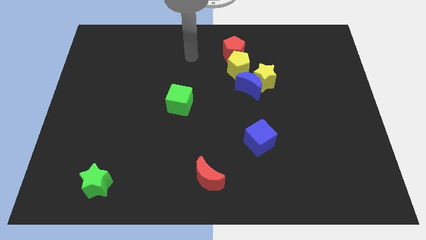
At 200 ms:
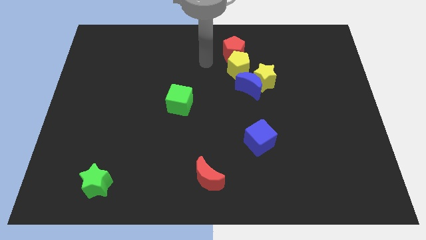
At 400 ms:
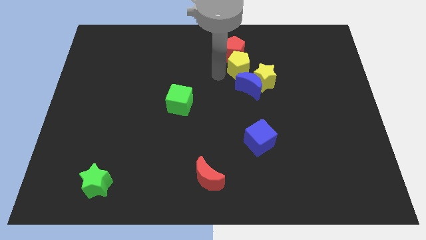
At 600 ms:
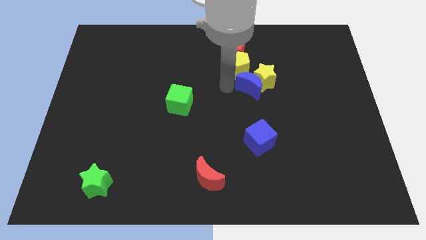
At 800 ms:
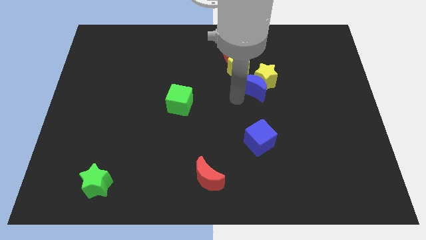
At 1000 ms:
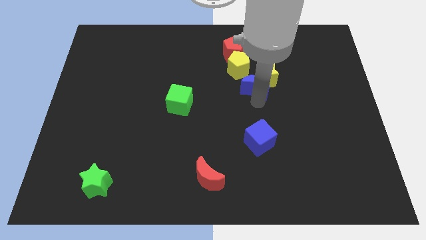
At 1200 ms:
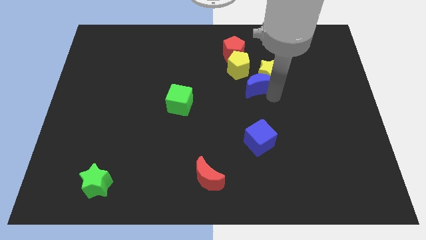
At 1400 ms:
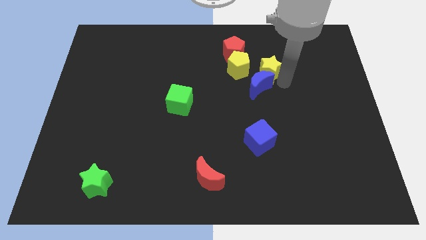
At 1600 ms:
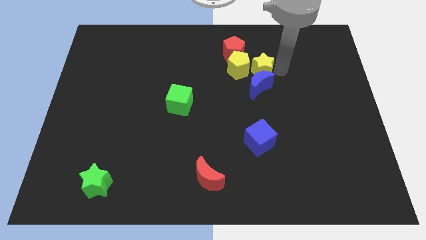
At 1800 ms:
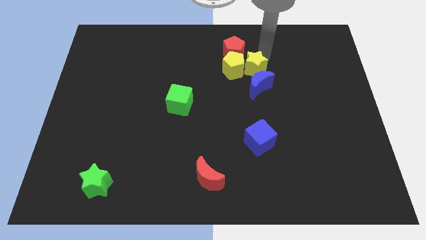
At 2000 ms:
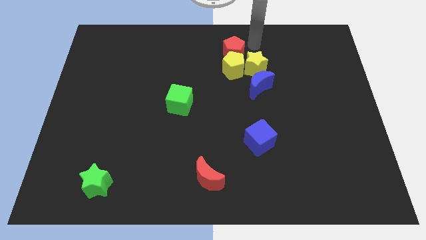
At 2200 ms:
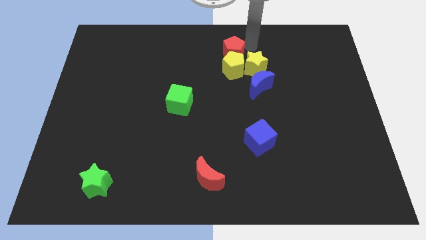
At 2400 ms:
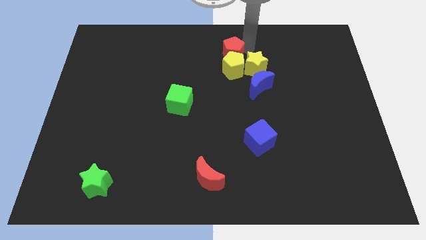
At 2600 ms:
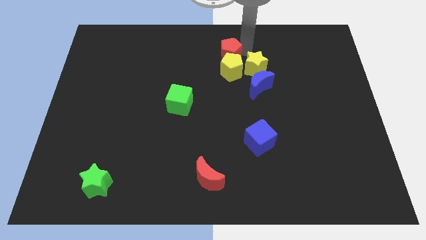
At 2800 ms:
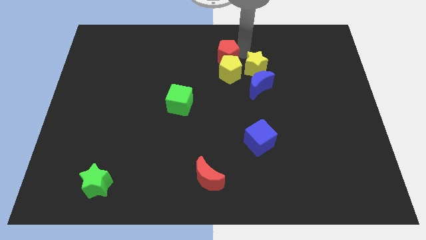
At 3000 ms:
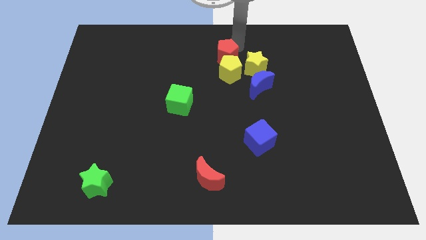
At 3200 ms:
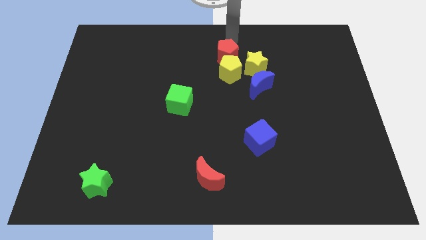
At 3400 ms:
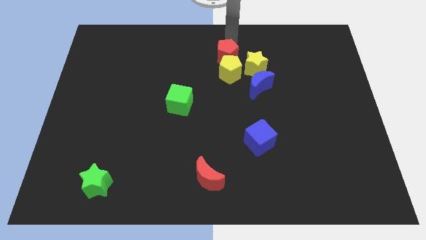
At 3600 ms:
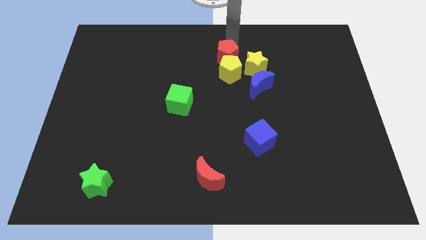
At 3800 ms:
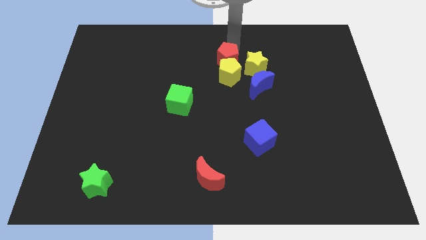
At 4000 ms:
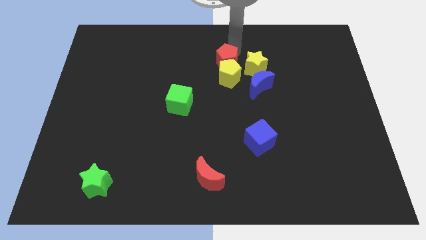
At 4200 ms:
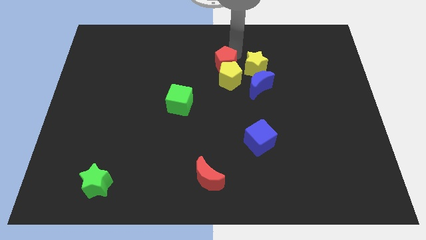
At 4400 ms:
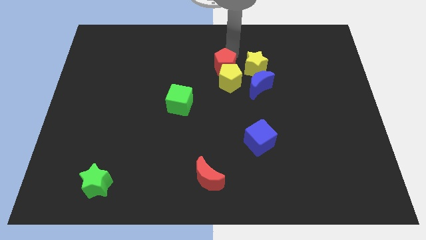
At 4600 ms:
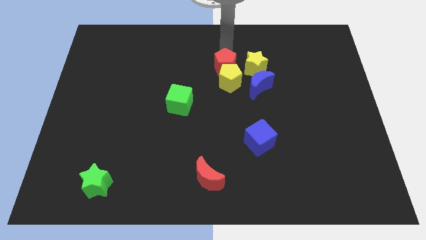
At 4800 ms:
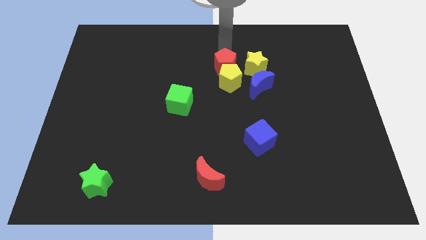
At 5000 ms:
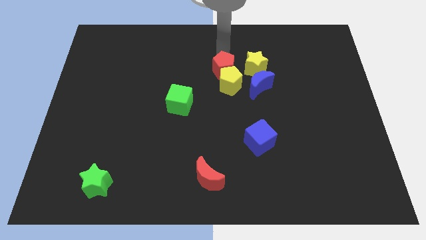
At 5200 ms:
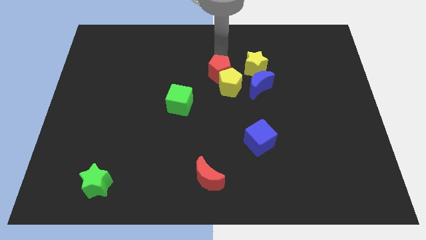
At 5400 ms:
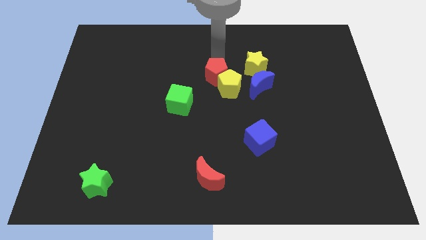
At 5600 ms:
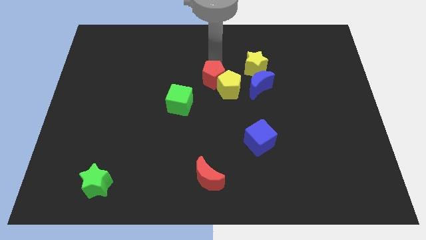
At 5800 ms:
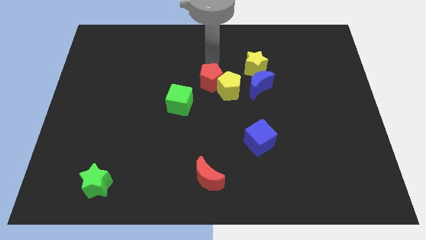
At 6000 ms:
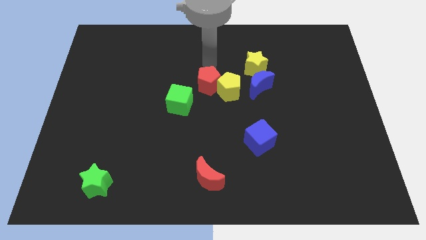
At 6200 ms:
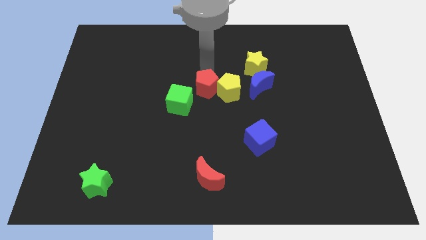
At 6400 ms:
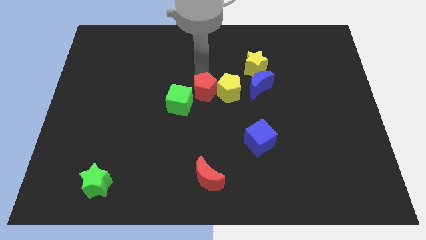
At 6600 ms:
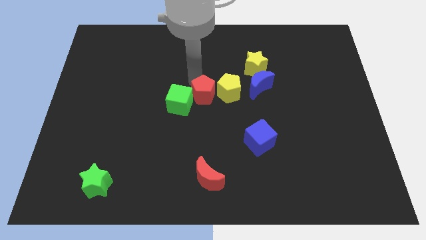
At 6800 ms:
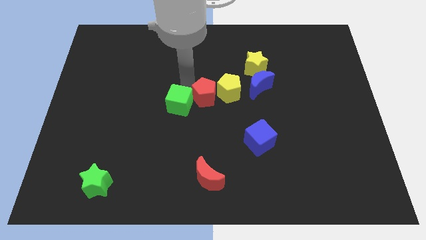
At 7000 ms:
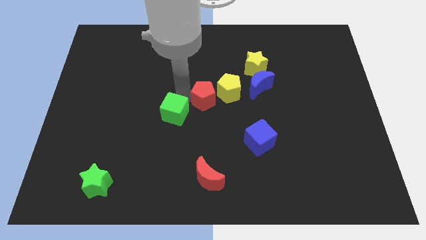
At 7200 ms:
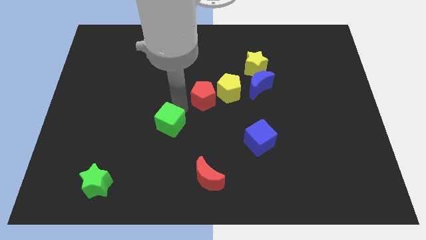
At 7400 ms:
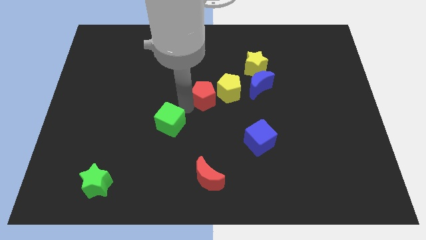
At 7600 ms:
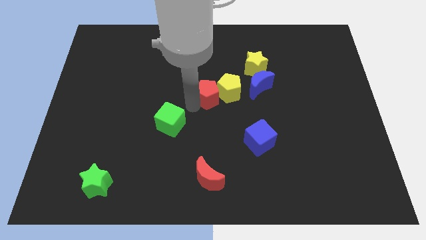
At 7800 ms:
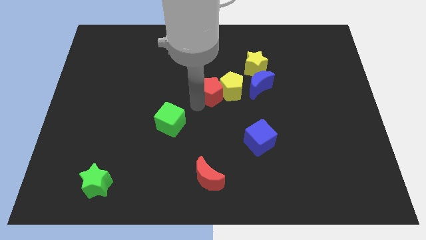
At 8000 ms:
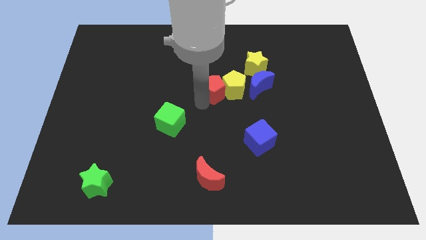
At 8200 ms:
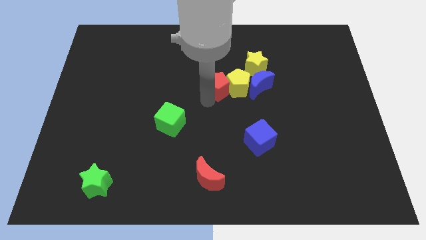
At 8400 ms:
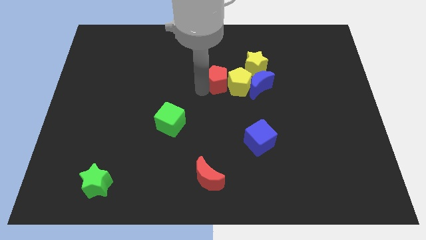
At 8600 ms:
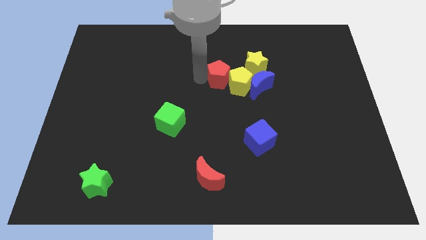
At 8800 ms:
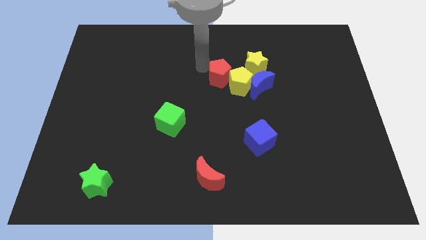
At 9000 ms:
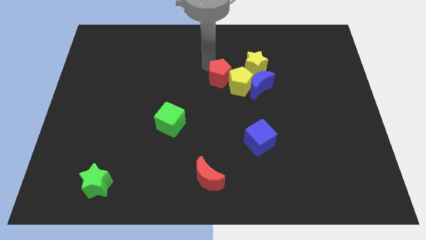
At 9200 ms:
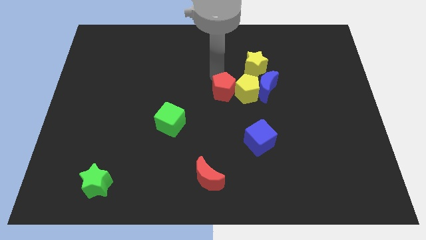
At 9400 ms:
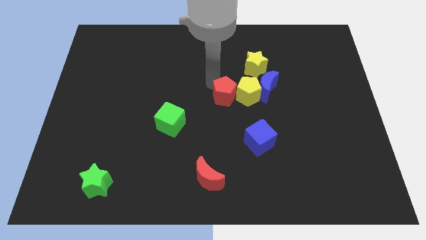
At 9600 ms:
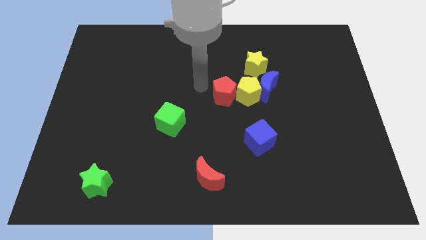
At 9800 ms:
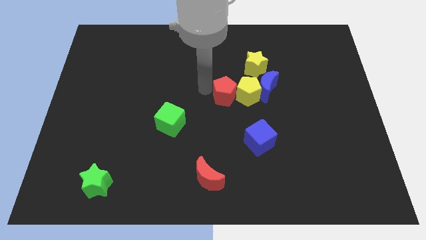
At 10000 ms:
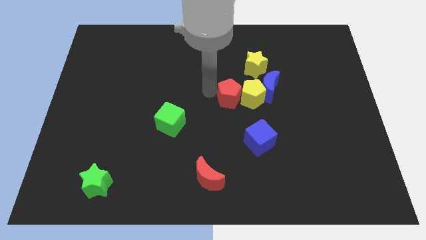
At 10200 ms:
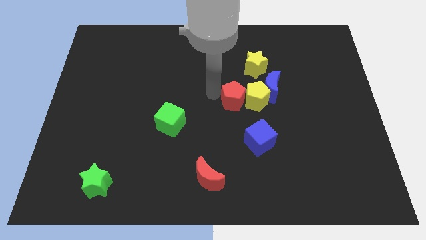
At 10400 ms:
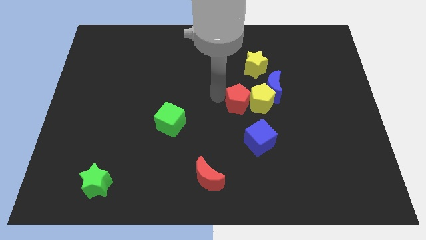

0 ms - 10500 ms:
slide the red pentagon to the bottom of the yellow star

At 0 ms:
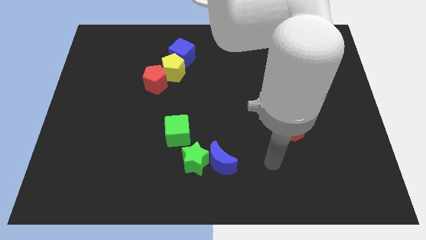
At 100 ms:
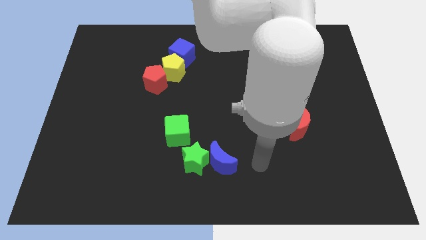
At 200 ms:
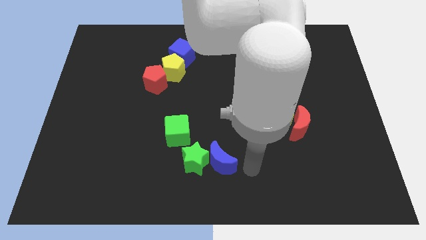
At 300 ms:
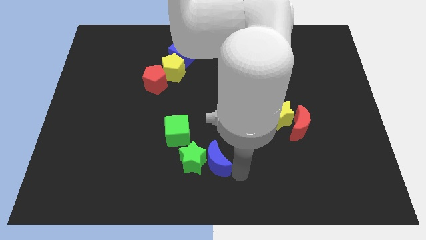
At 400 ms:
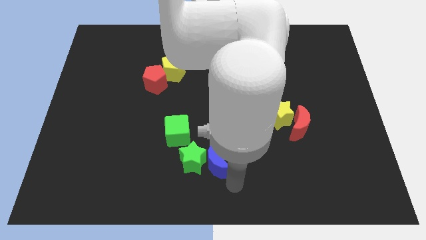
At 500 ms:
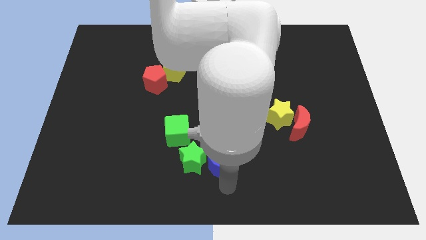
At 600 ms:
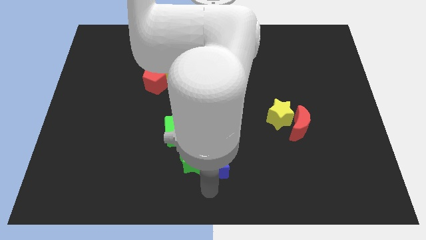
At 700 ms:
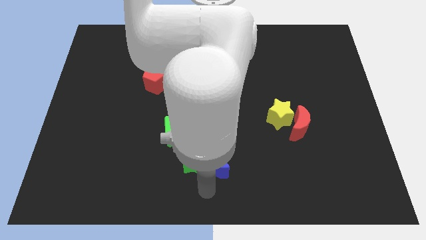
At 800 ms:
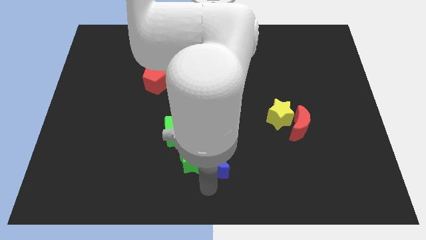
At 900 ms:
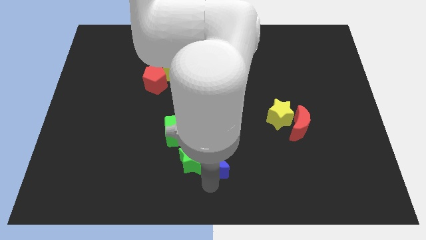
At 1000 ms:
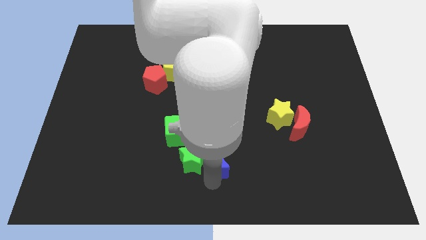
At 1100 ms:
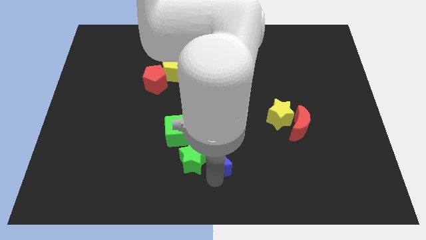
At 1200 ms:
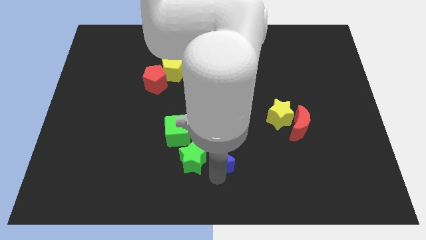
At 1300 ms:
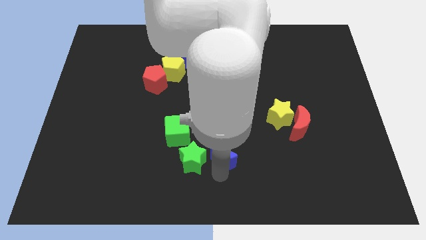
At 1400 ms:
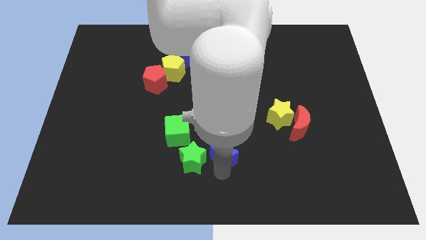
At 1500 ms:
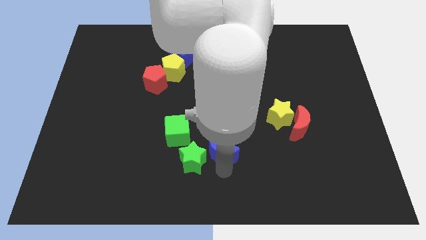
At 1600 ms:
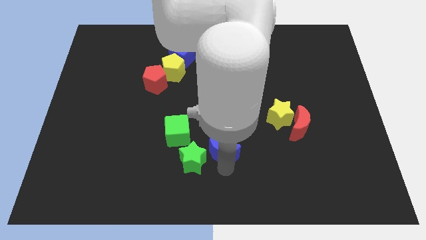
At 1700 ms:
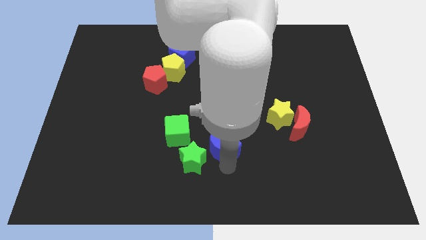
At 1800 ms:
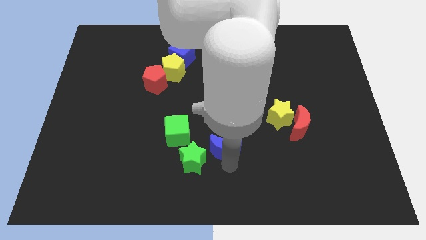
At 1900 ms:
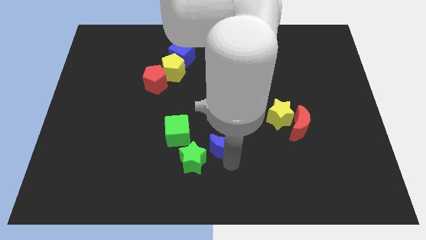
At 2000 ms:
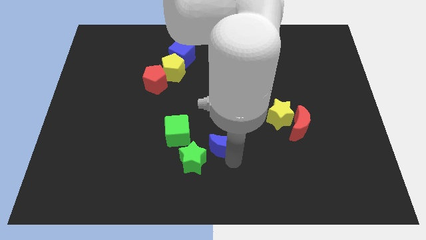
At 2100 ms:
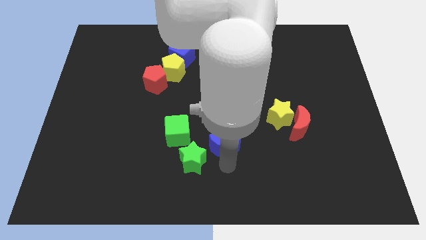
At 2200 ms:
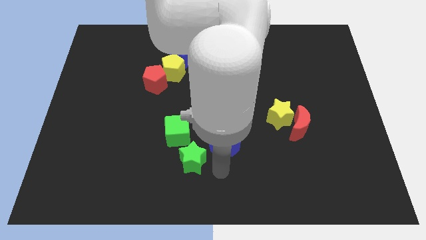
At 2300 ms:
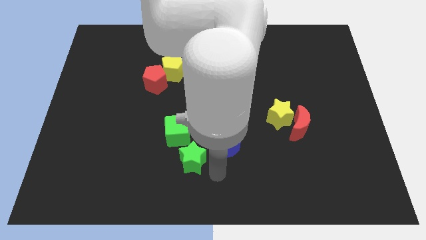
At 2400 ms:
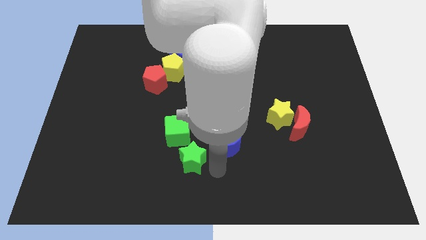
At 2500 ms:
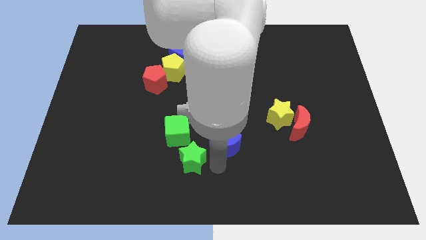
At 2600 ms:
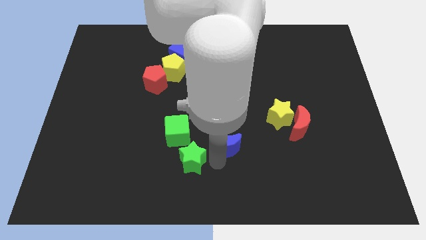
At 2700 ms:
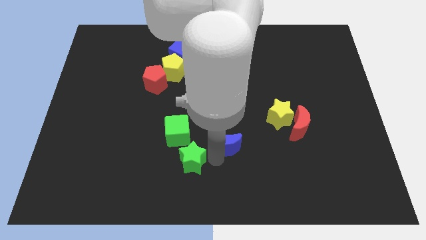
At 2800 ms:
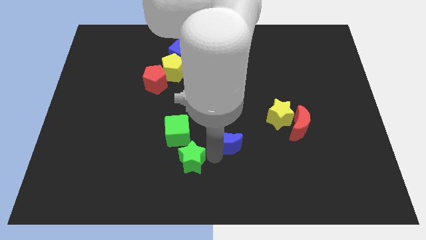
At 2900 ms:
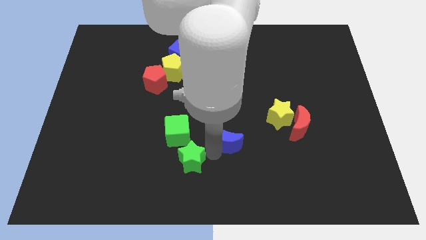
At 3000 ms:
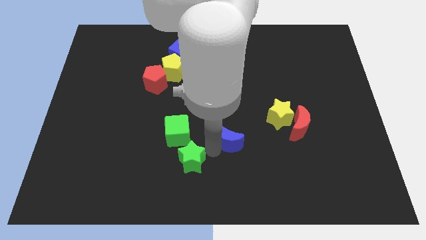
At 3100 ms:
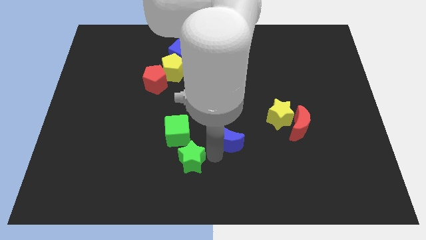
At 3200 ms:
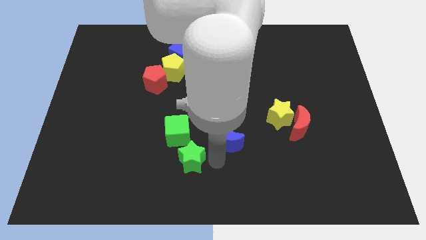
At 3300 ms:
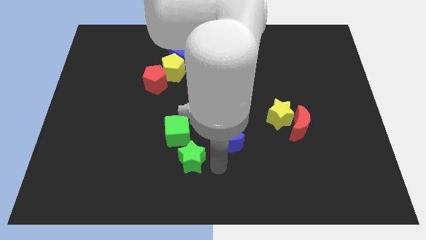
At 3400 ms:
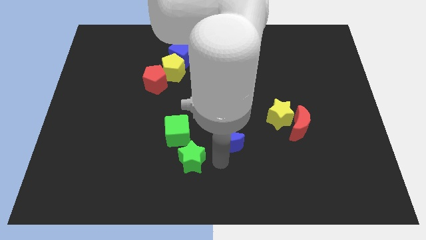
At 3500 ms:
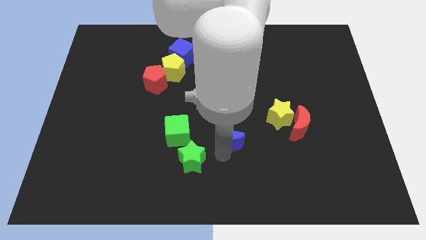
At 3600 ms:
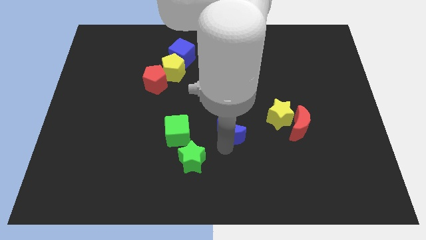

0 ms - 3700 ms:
push the blue moon to the left of the yellow star
